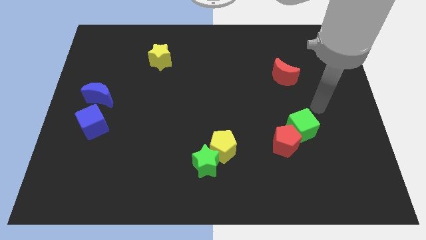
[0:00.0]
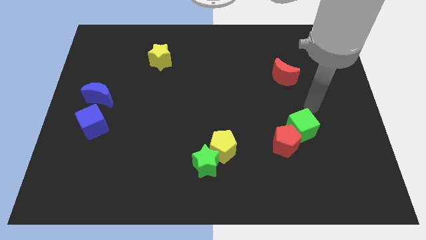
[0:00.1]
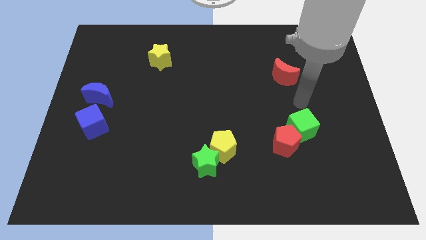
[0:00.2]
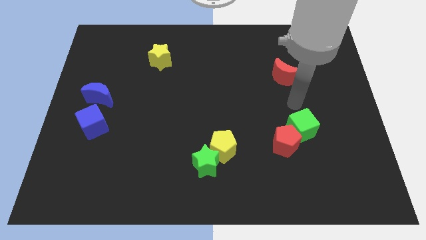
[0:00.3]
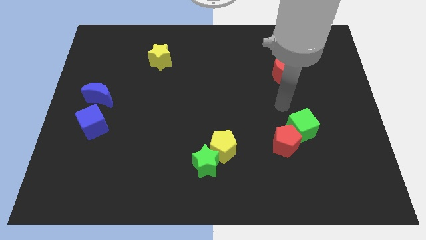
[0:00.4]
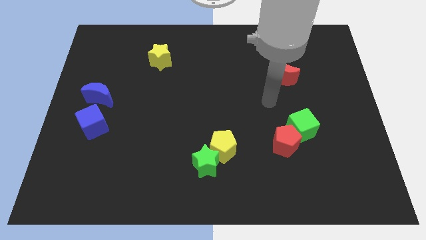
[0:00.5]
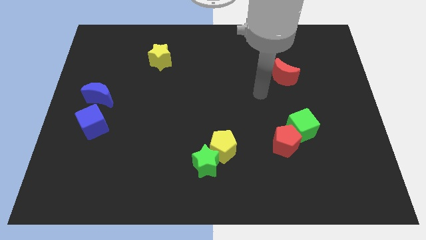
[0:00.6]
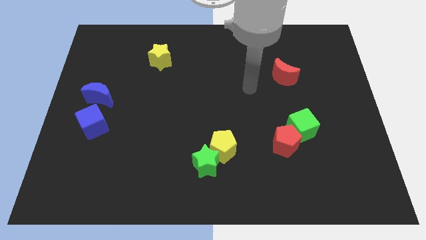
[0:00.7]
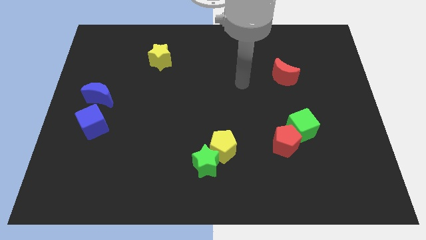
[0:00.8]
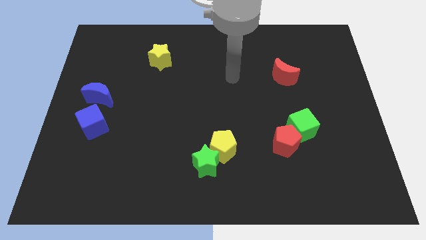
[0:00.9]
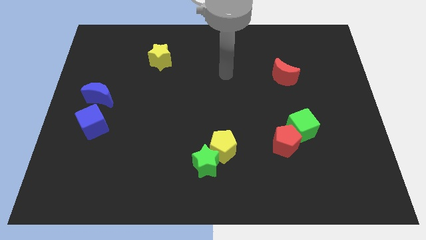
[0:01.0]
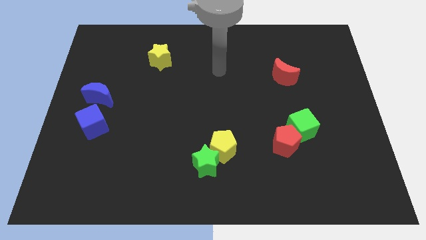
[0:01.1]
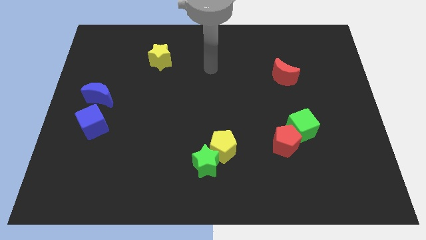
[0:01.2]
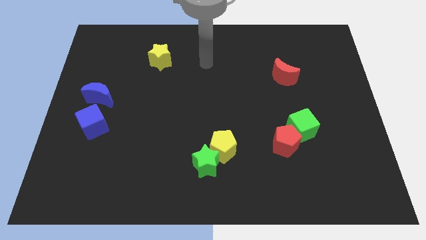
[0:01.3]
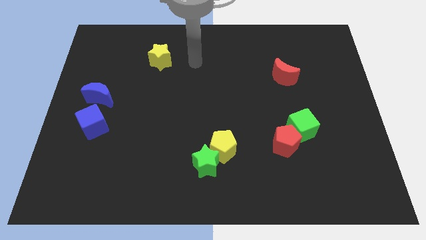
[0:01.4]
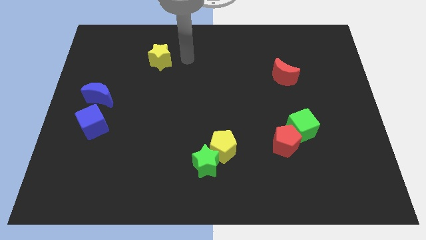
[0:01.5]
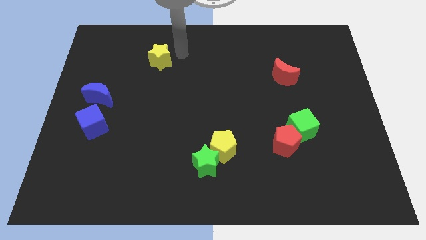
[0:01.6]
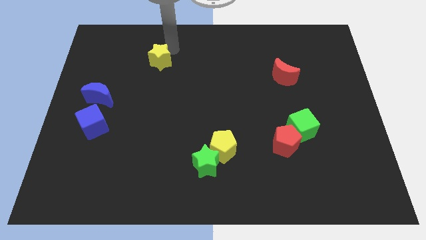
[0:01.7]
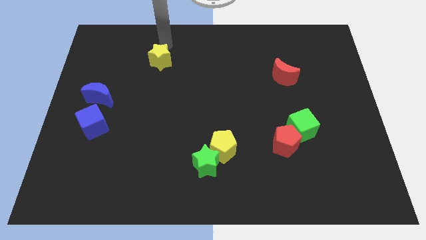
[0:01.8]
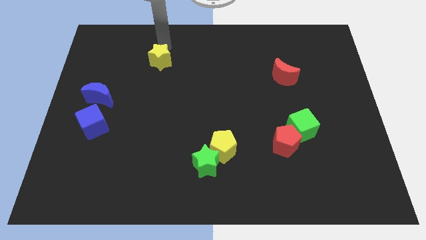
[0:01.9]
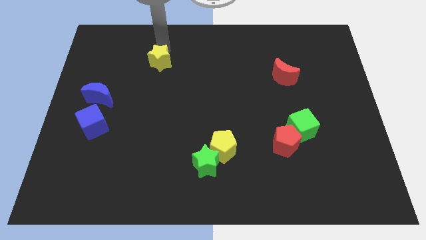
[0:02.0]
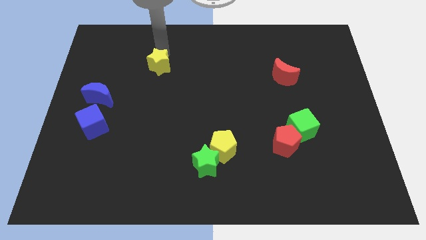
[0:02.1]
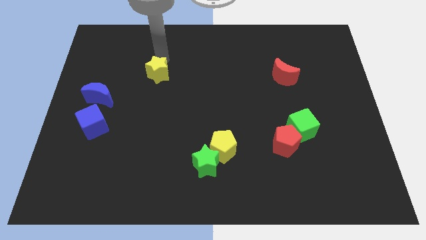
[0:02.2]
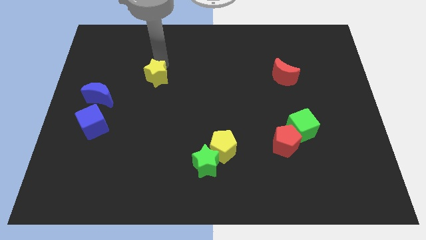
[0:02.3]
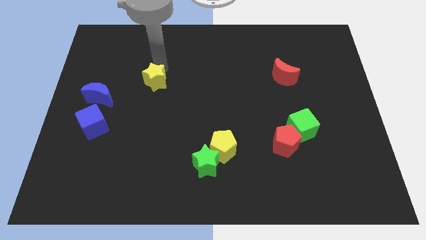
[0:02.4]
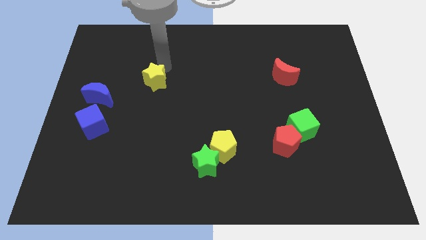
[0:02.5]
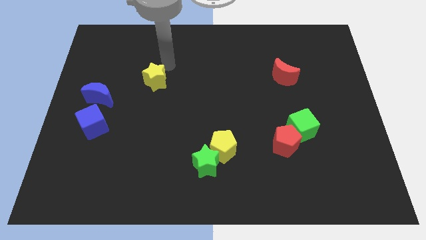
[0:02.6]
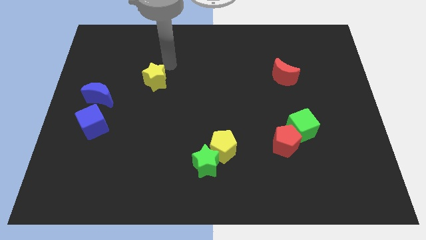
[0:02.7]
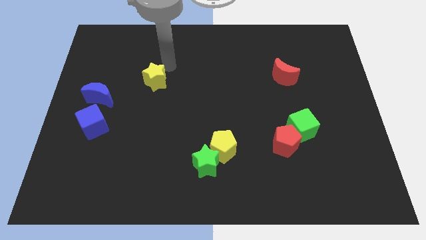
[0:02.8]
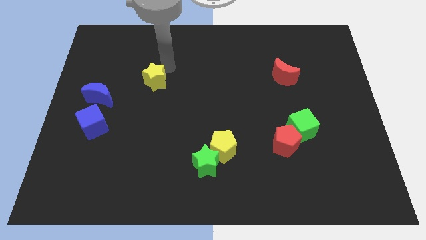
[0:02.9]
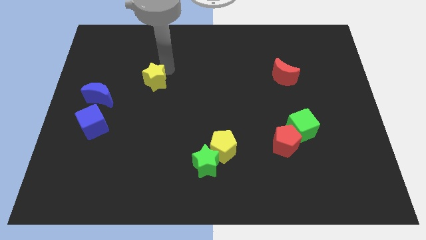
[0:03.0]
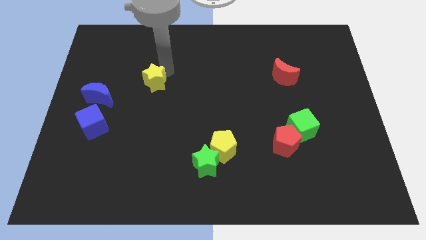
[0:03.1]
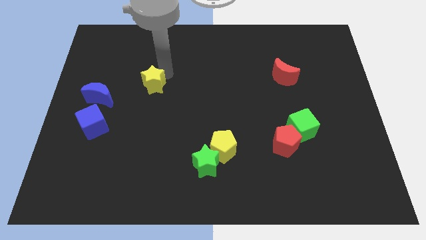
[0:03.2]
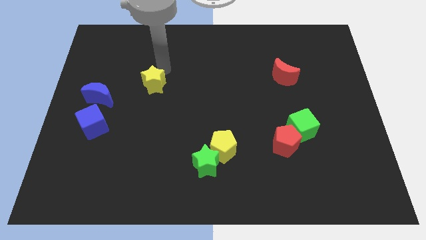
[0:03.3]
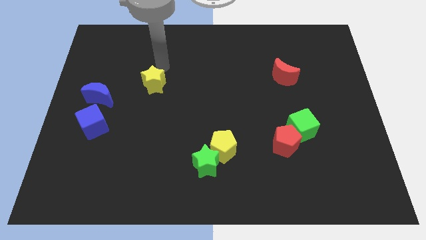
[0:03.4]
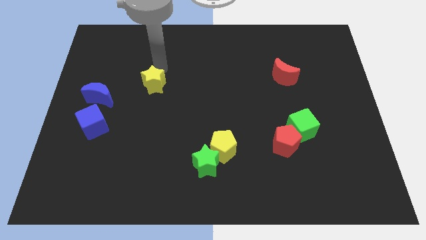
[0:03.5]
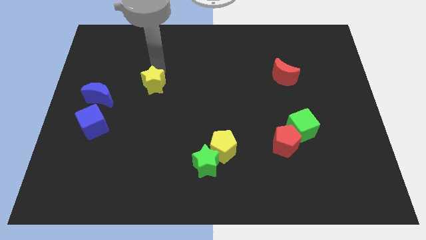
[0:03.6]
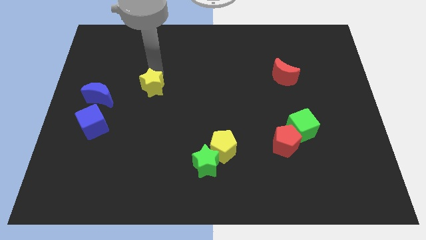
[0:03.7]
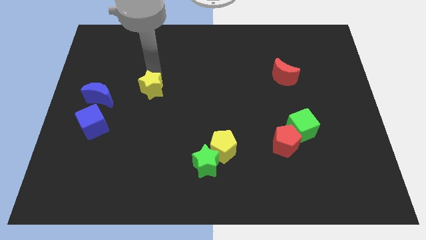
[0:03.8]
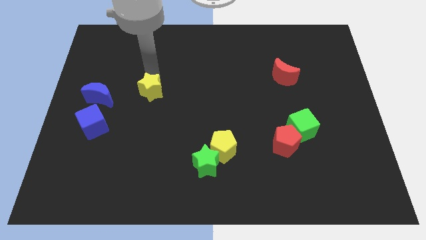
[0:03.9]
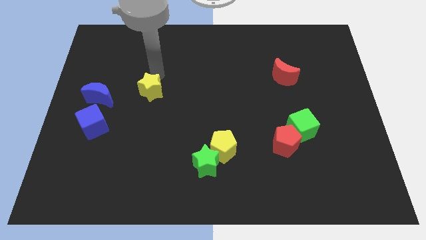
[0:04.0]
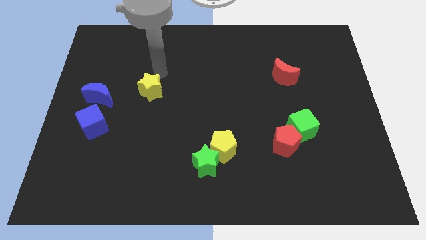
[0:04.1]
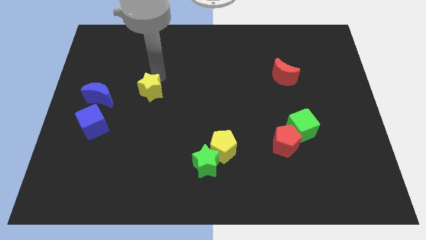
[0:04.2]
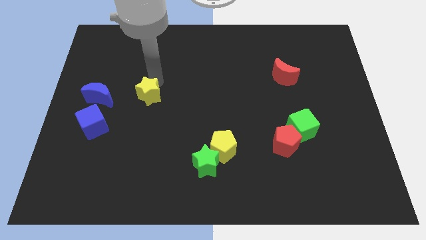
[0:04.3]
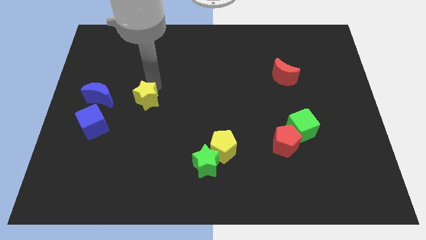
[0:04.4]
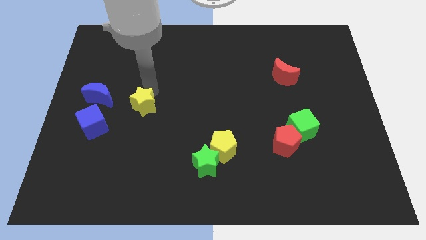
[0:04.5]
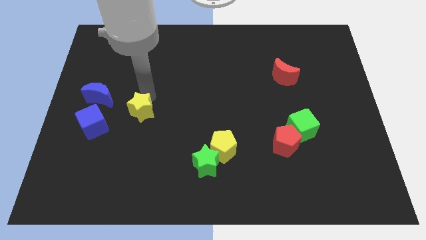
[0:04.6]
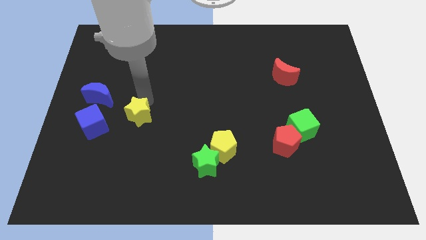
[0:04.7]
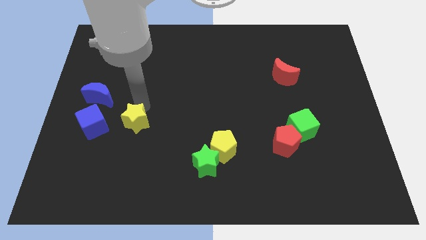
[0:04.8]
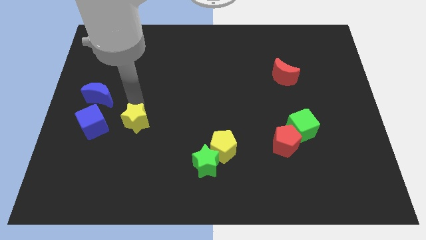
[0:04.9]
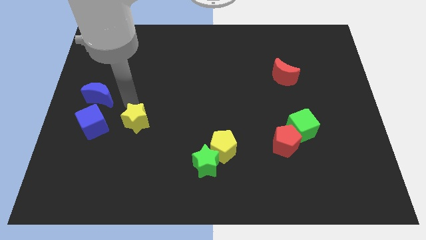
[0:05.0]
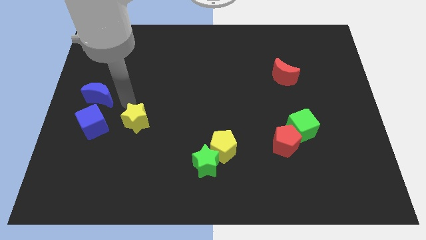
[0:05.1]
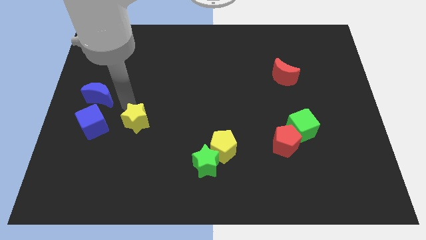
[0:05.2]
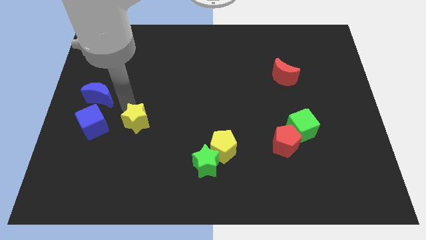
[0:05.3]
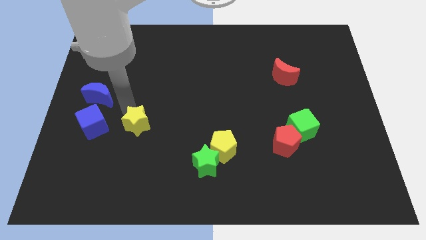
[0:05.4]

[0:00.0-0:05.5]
move the yellow star downwards

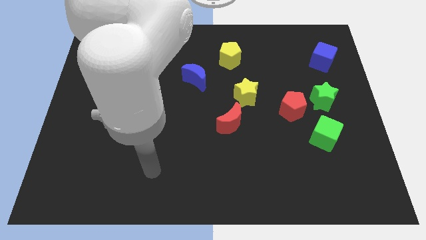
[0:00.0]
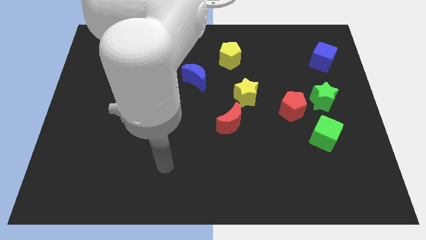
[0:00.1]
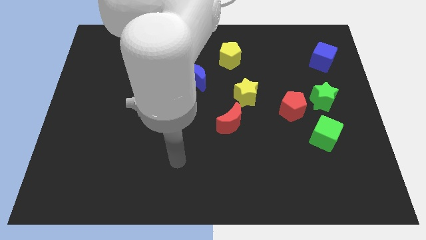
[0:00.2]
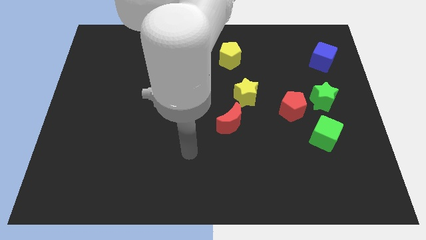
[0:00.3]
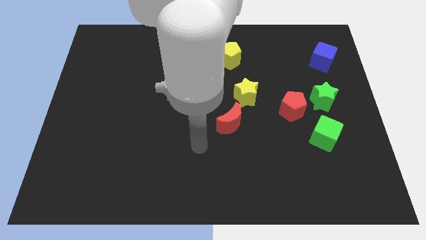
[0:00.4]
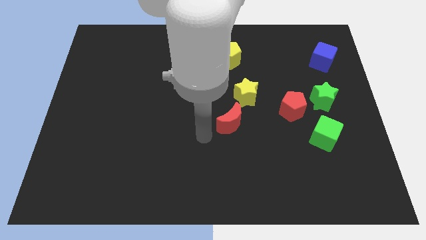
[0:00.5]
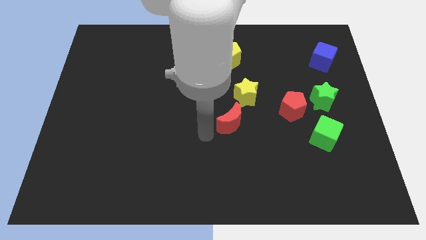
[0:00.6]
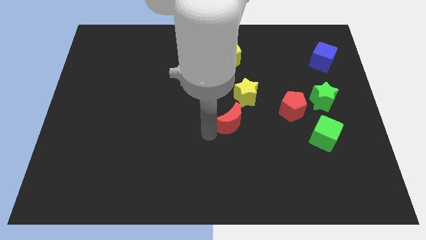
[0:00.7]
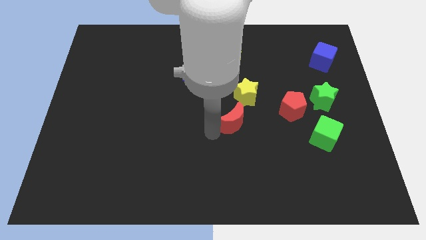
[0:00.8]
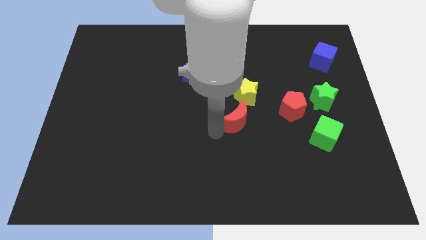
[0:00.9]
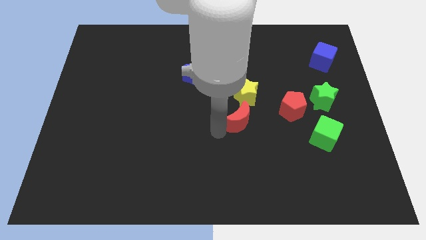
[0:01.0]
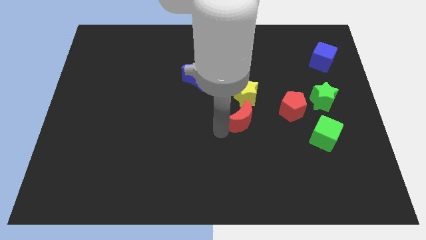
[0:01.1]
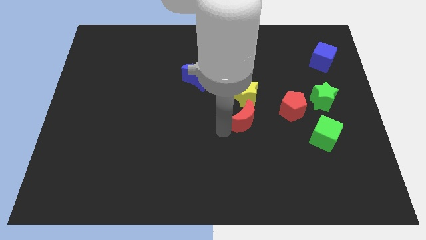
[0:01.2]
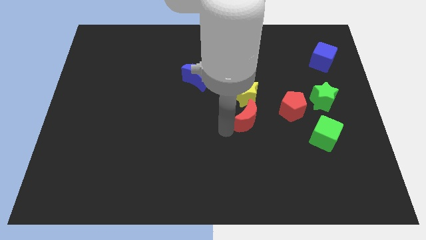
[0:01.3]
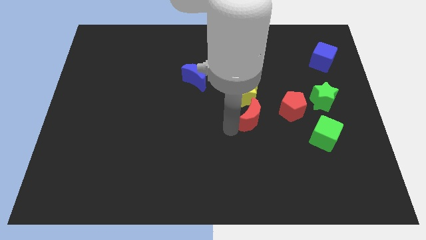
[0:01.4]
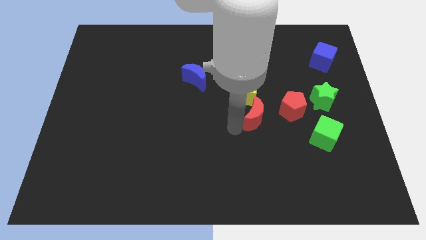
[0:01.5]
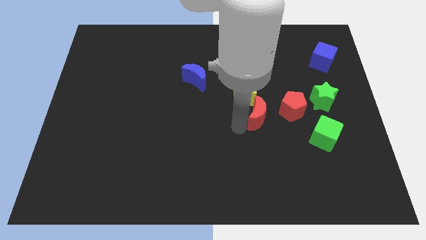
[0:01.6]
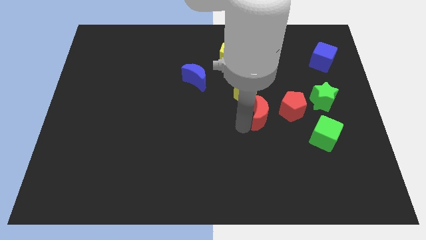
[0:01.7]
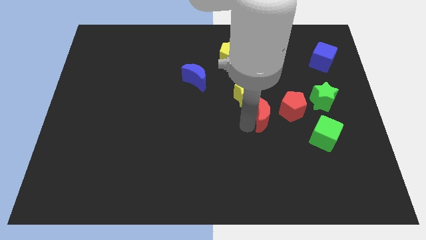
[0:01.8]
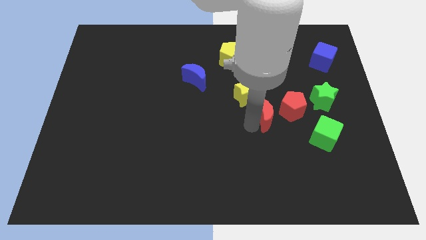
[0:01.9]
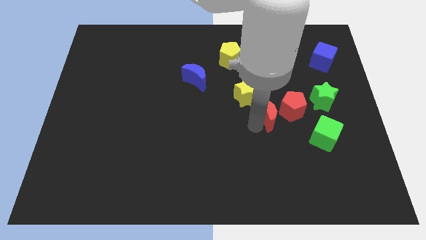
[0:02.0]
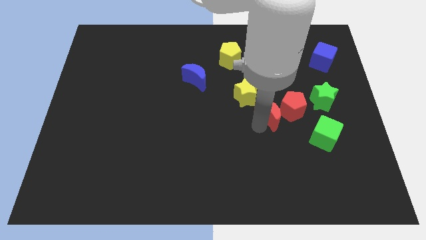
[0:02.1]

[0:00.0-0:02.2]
slide the red moon diagonally up and to the right somewhat

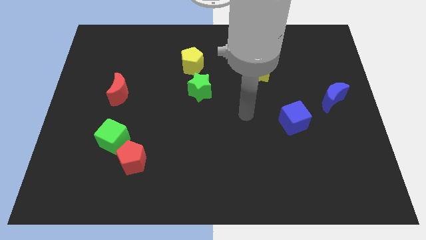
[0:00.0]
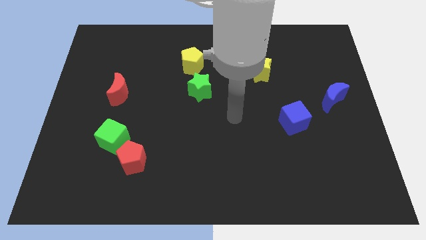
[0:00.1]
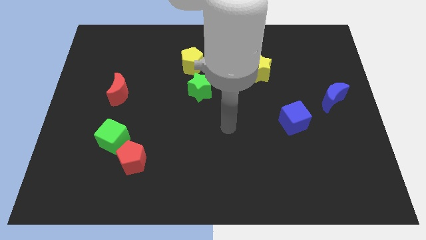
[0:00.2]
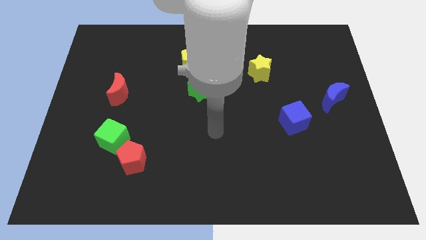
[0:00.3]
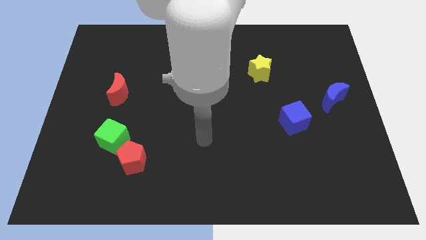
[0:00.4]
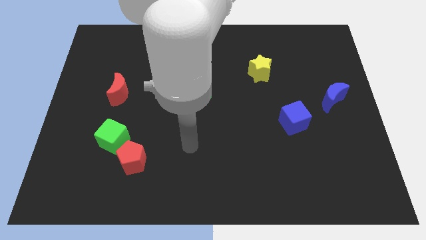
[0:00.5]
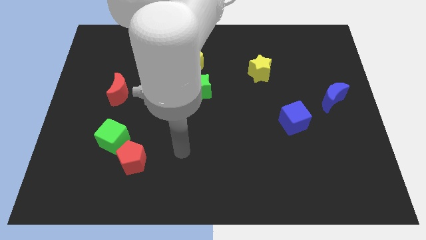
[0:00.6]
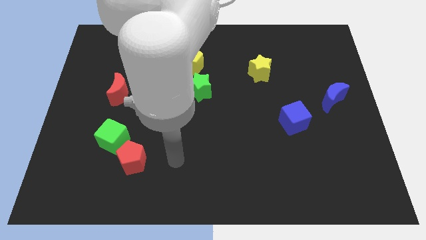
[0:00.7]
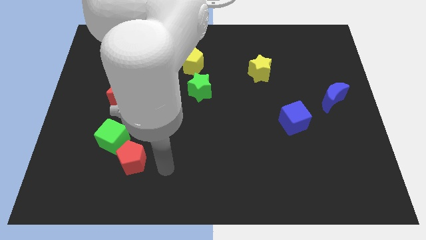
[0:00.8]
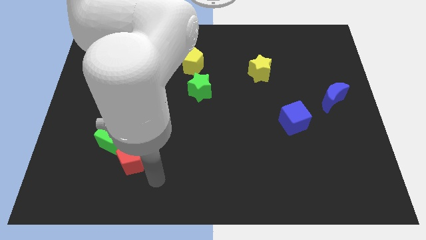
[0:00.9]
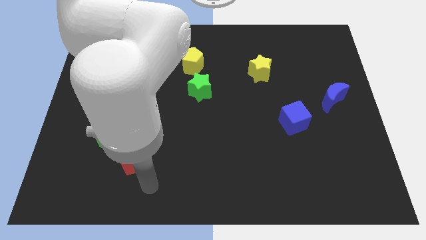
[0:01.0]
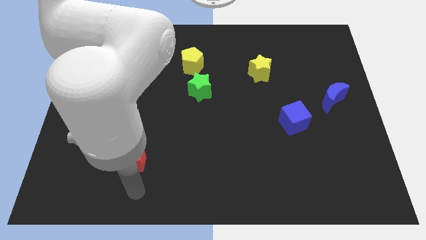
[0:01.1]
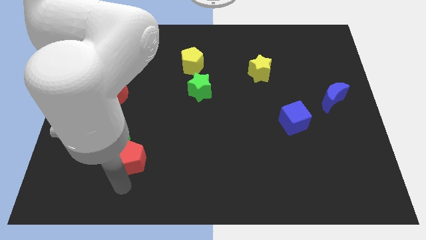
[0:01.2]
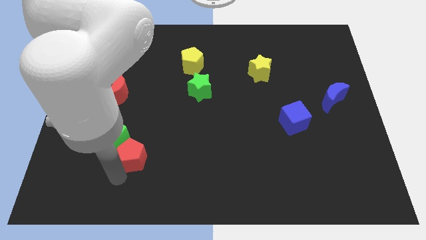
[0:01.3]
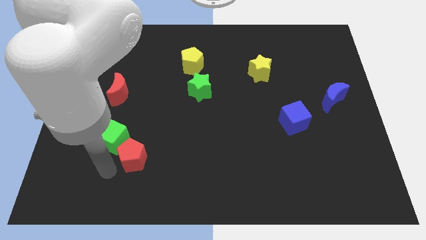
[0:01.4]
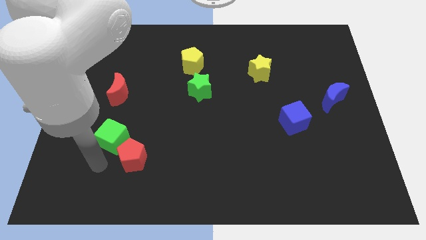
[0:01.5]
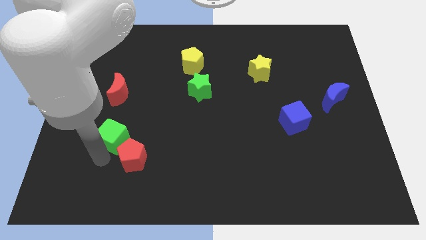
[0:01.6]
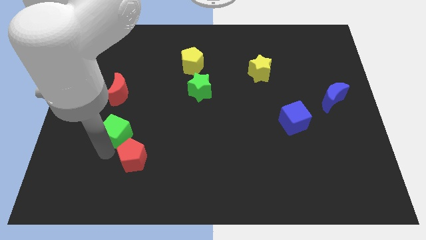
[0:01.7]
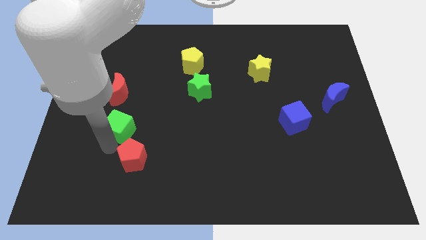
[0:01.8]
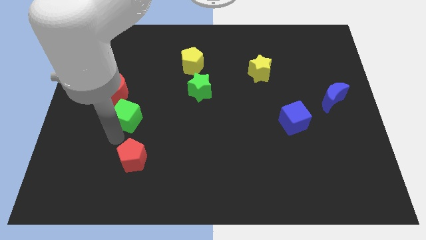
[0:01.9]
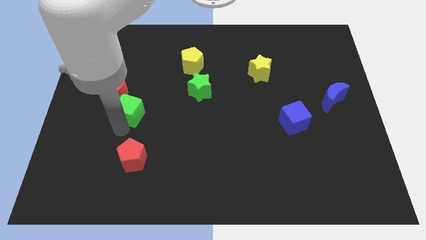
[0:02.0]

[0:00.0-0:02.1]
slide the green cube a little bit upwards
